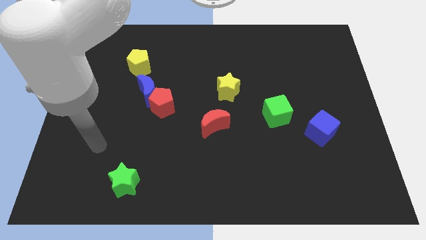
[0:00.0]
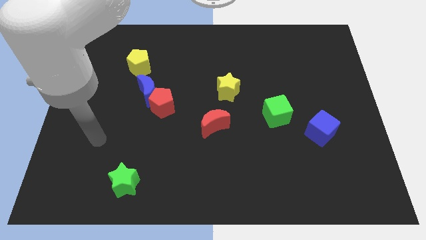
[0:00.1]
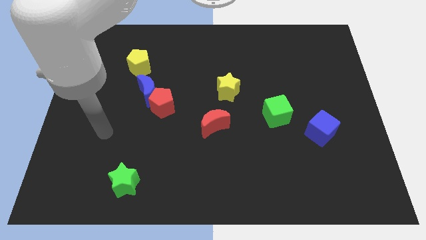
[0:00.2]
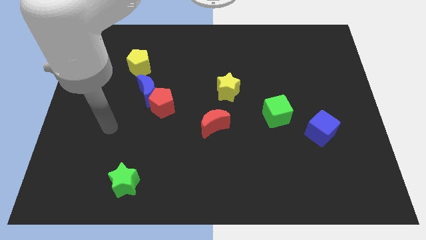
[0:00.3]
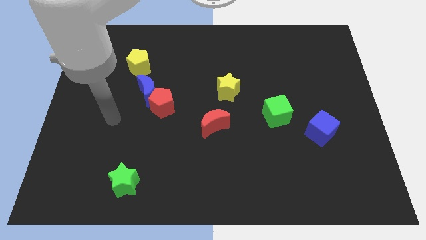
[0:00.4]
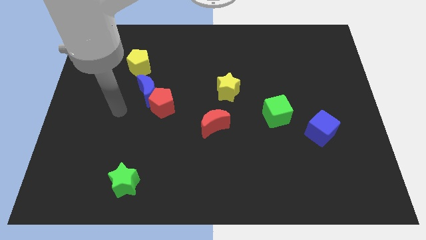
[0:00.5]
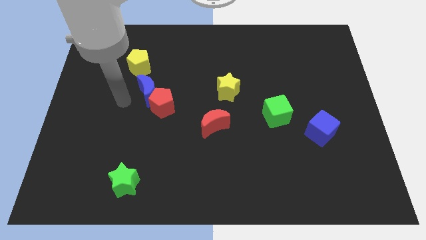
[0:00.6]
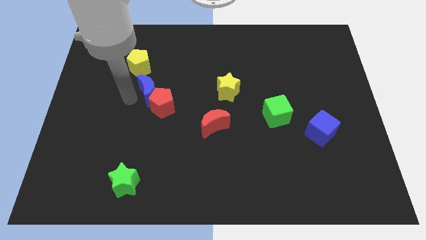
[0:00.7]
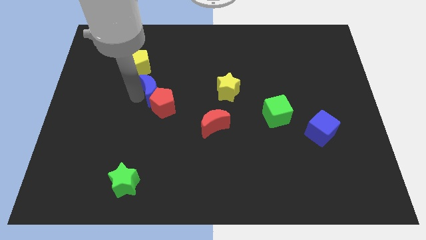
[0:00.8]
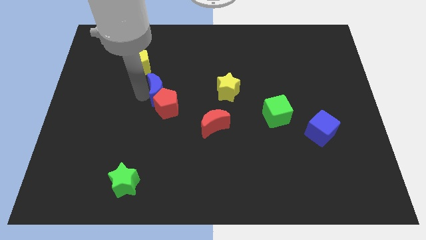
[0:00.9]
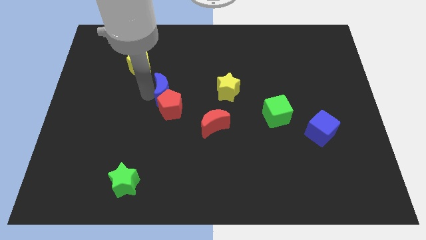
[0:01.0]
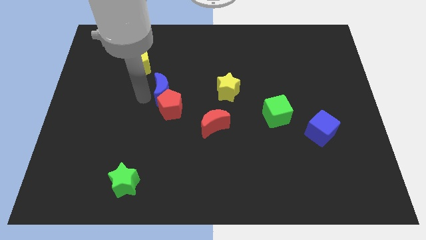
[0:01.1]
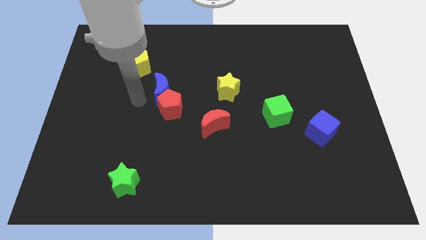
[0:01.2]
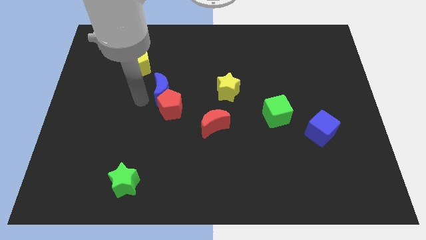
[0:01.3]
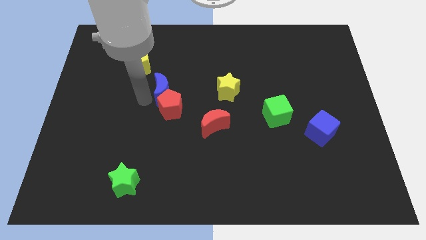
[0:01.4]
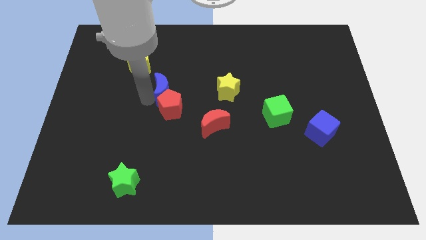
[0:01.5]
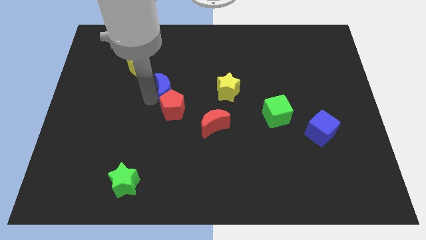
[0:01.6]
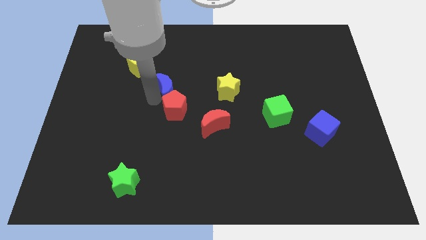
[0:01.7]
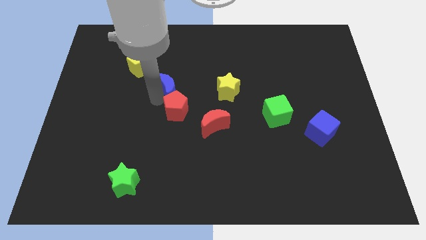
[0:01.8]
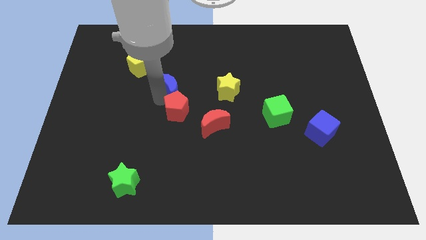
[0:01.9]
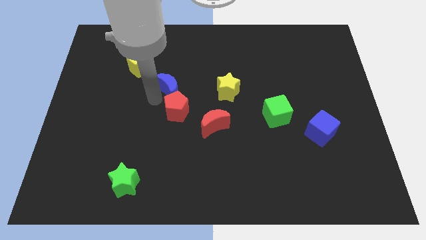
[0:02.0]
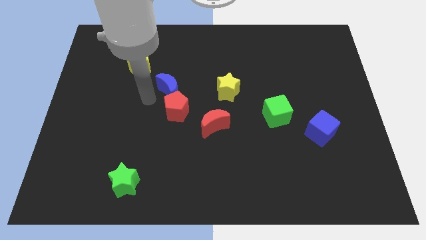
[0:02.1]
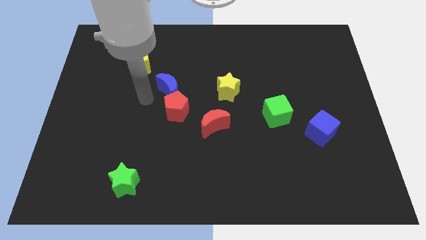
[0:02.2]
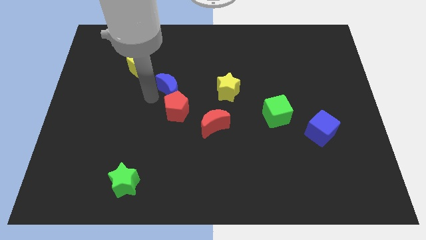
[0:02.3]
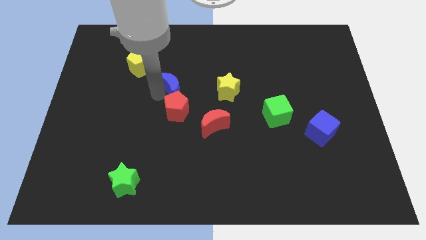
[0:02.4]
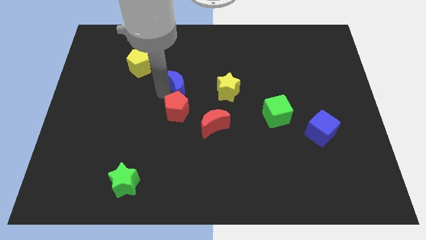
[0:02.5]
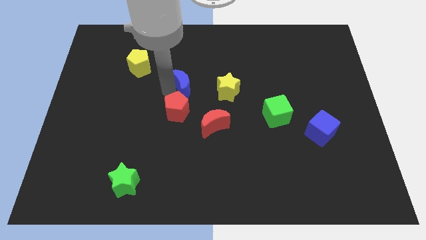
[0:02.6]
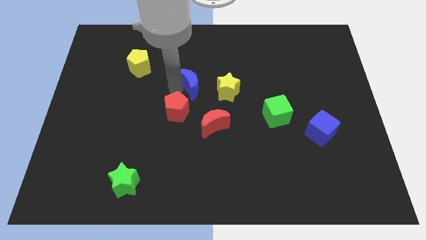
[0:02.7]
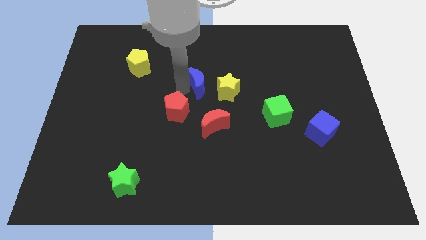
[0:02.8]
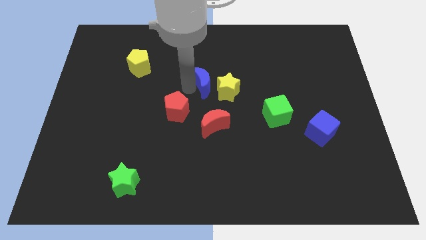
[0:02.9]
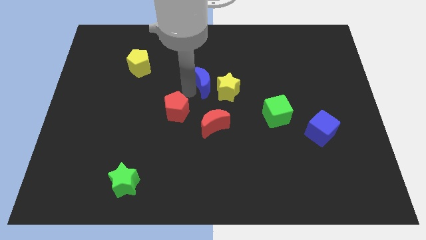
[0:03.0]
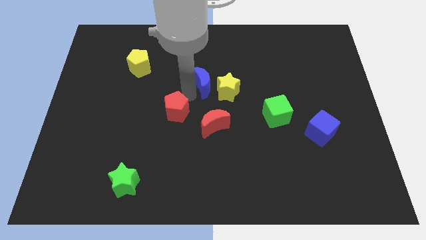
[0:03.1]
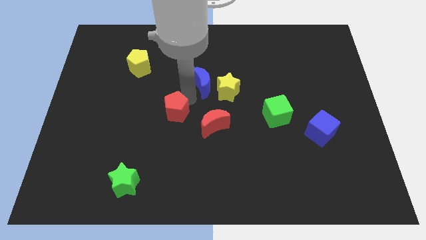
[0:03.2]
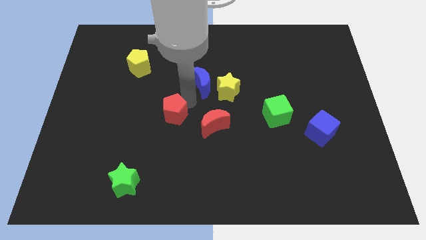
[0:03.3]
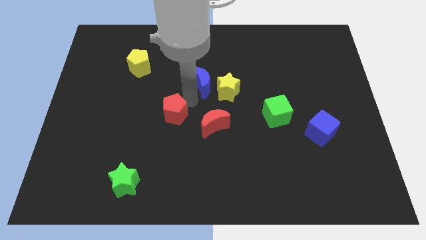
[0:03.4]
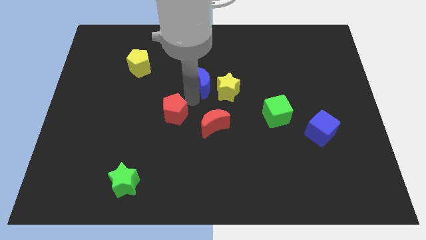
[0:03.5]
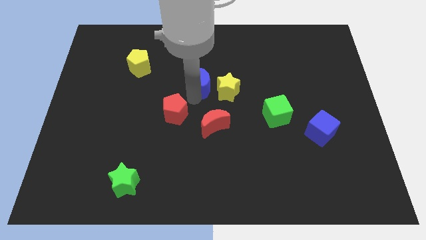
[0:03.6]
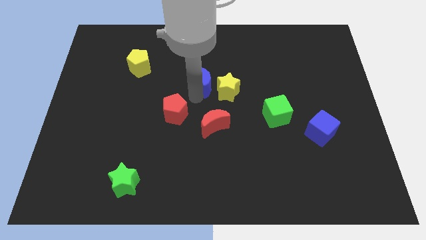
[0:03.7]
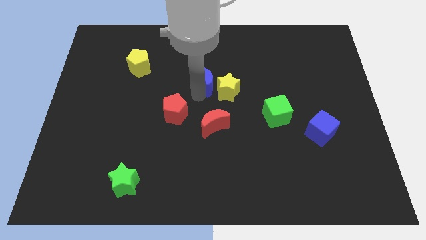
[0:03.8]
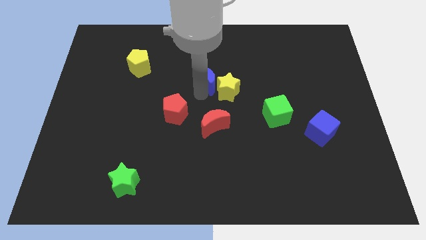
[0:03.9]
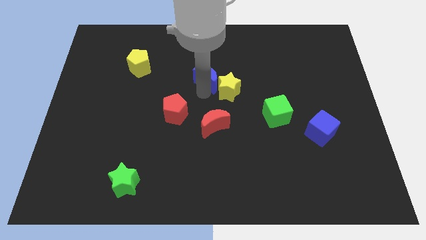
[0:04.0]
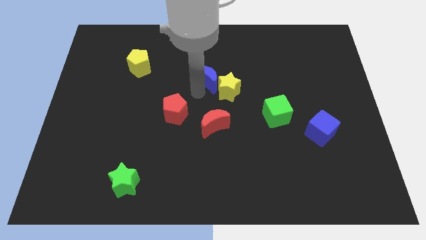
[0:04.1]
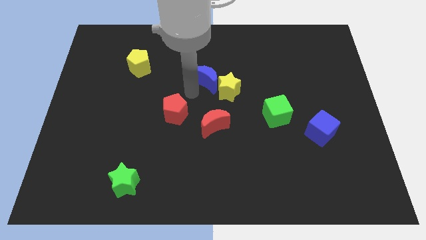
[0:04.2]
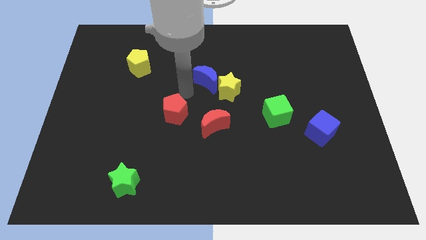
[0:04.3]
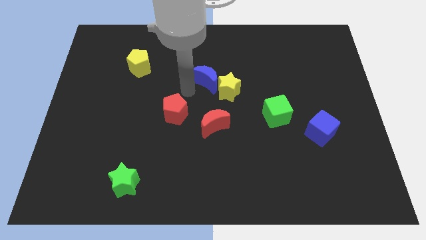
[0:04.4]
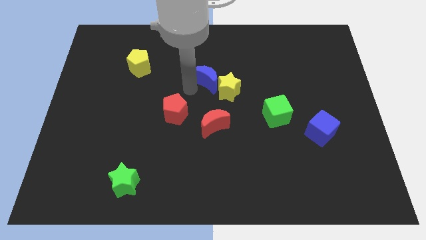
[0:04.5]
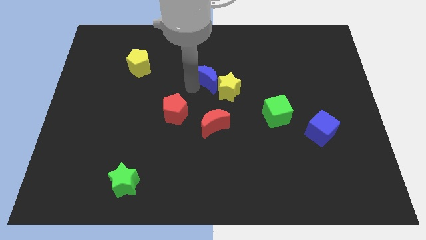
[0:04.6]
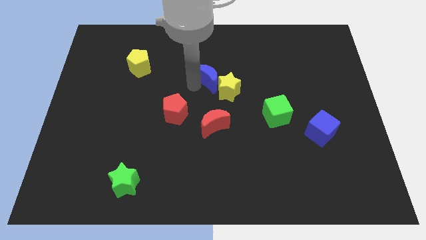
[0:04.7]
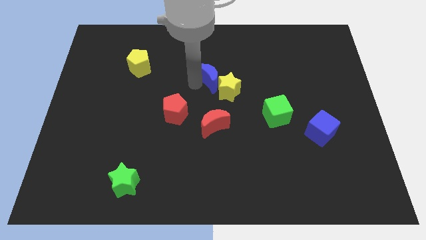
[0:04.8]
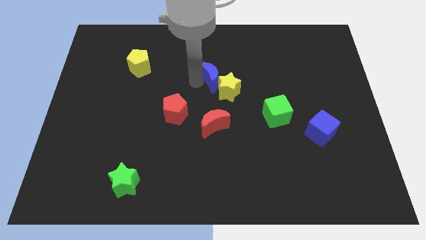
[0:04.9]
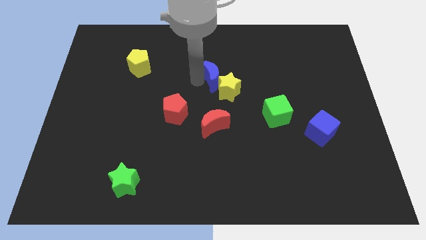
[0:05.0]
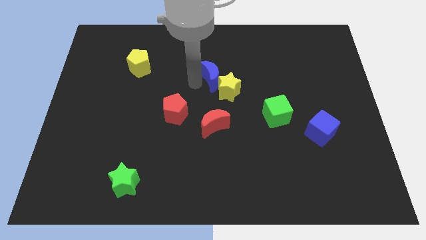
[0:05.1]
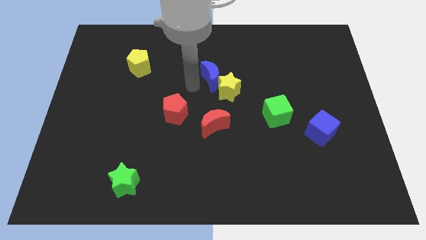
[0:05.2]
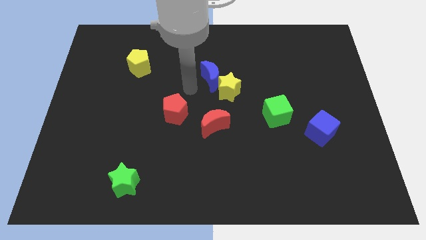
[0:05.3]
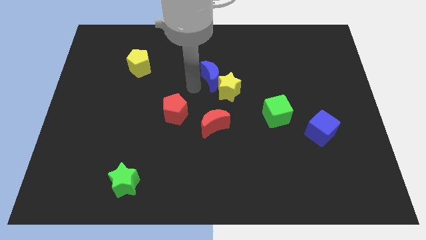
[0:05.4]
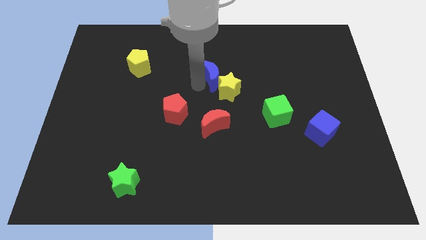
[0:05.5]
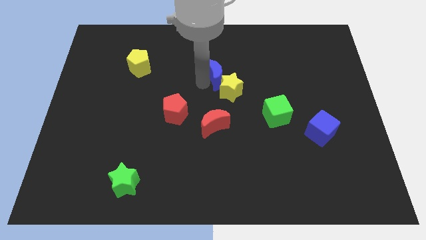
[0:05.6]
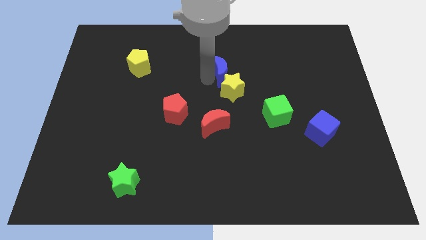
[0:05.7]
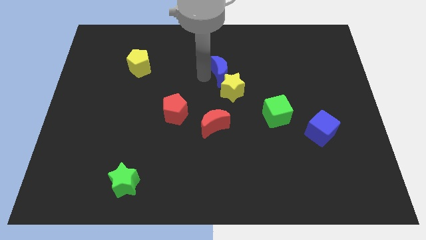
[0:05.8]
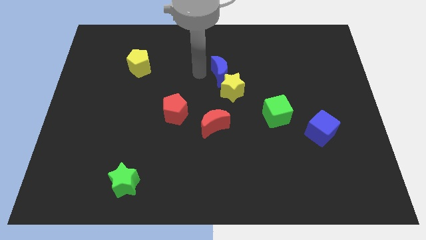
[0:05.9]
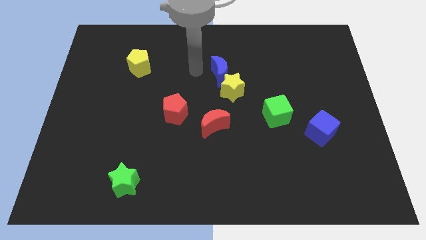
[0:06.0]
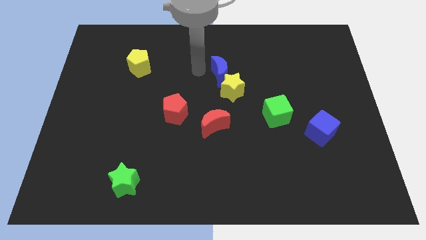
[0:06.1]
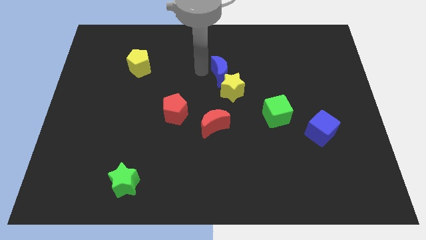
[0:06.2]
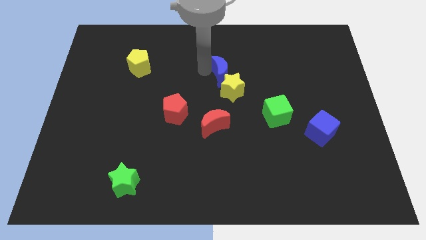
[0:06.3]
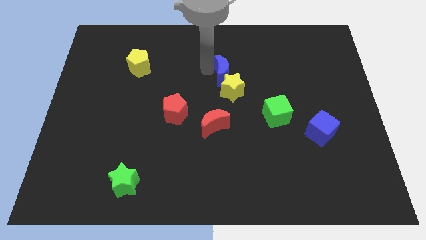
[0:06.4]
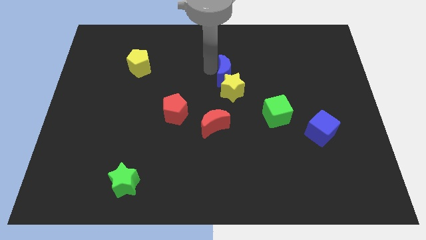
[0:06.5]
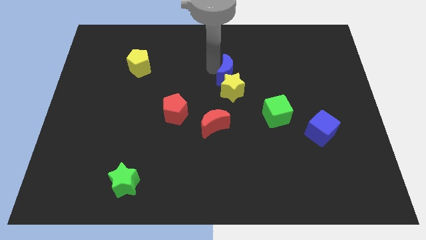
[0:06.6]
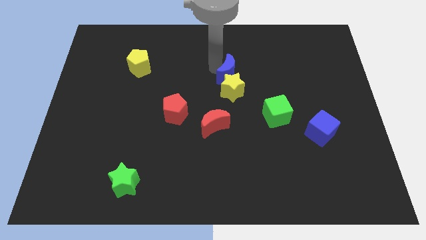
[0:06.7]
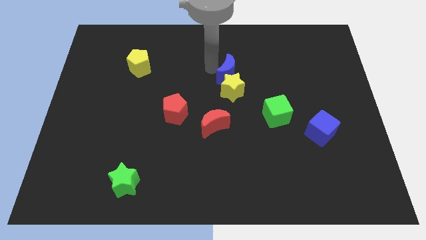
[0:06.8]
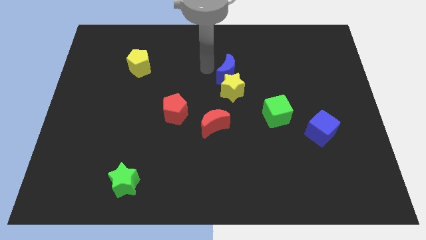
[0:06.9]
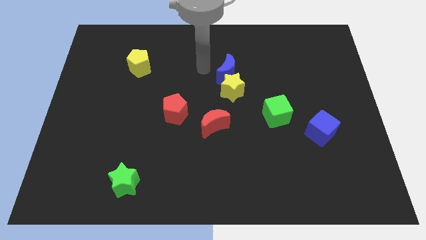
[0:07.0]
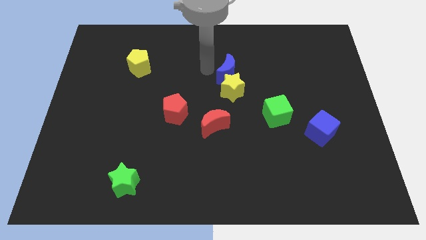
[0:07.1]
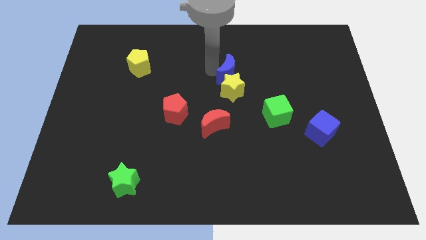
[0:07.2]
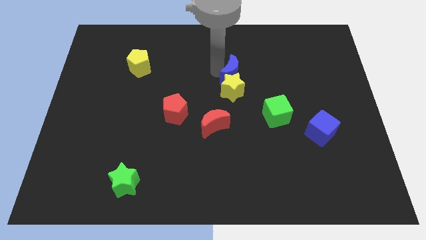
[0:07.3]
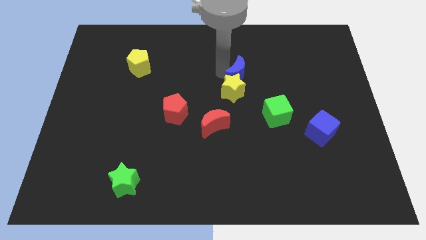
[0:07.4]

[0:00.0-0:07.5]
push the blue moon to the right

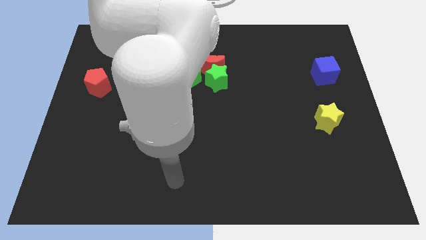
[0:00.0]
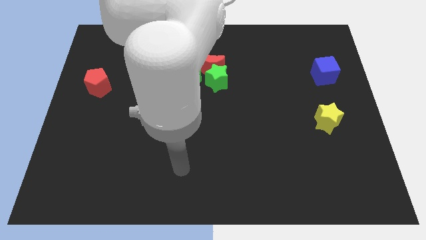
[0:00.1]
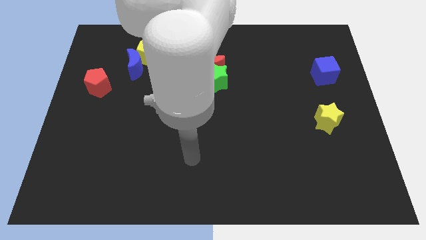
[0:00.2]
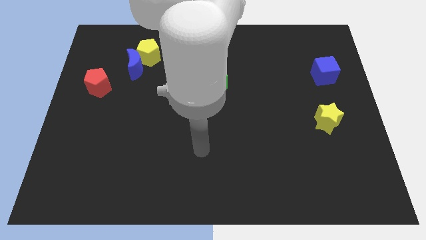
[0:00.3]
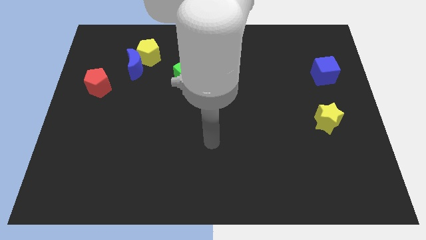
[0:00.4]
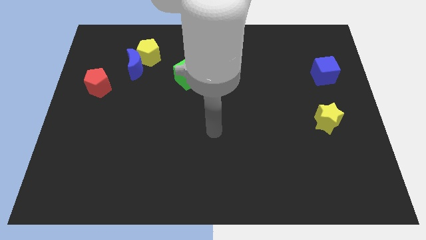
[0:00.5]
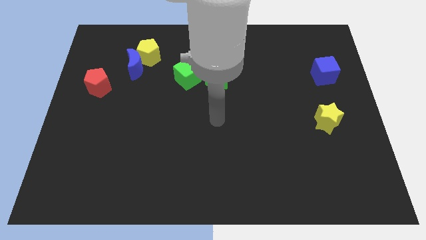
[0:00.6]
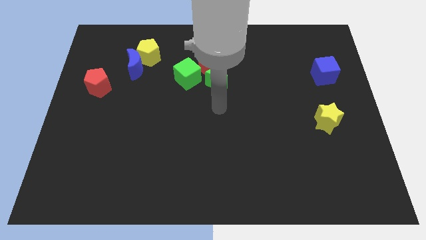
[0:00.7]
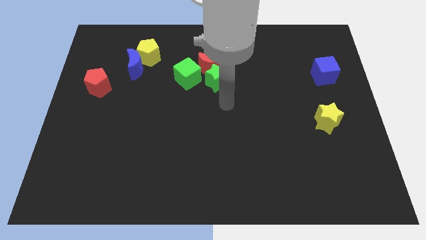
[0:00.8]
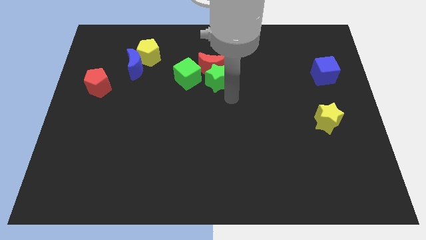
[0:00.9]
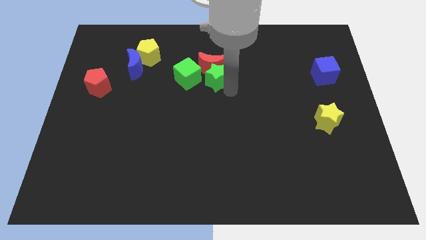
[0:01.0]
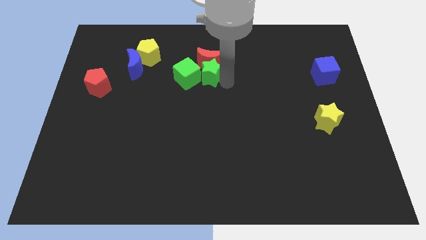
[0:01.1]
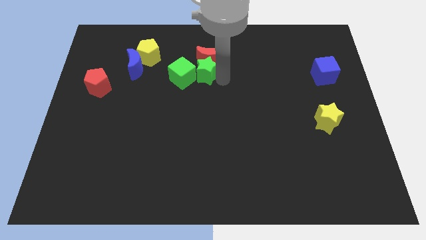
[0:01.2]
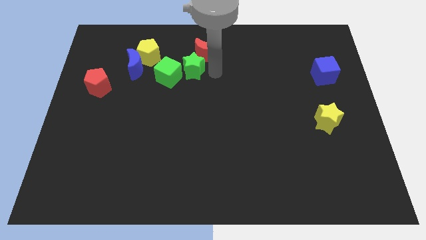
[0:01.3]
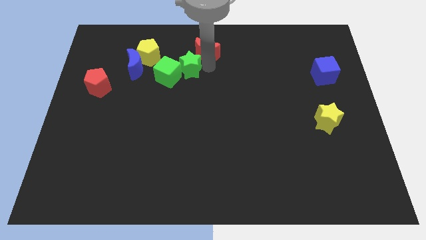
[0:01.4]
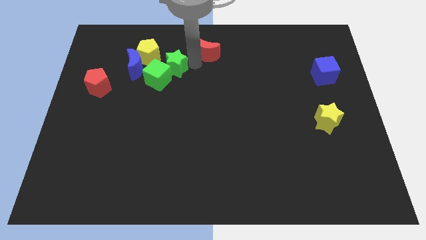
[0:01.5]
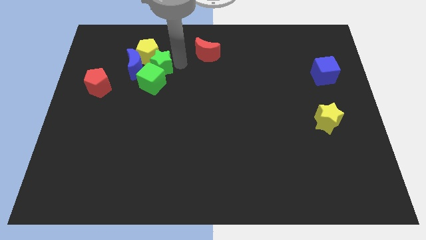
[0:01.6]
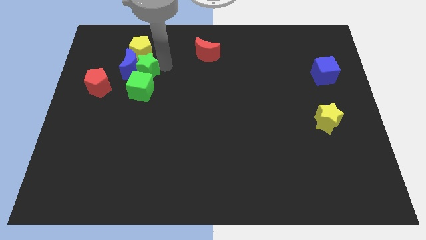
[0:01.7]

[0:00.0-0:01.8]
slide the green cube diagonally downwards and to the left a bit
